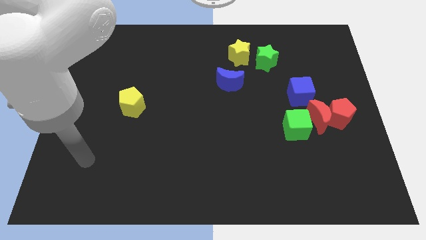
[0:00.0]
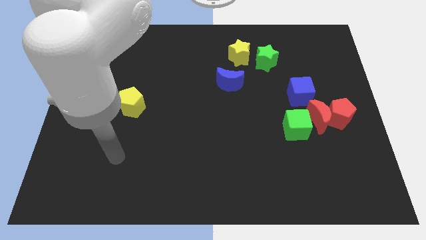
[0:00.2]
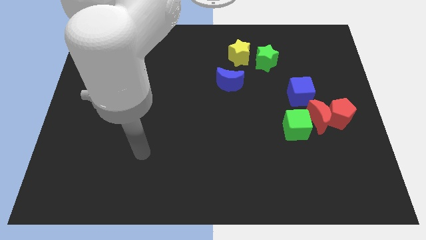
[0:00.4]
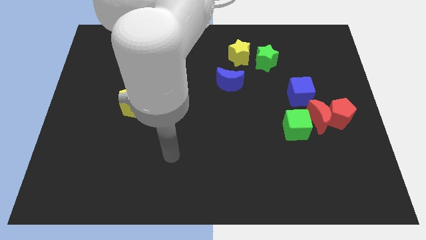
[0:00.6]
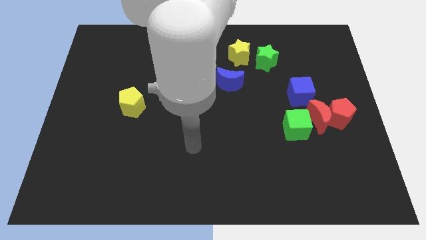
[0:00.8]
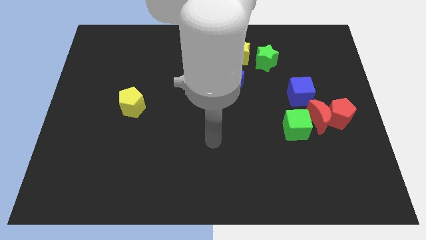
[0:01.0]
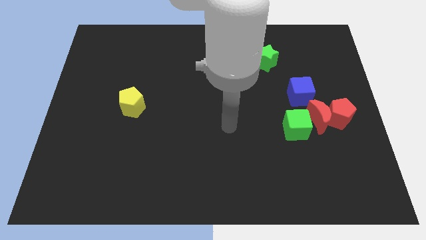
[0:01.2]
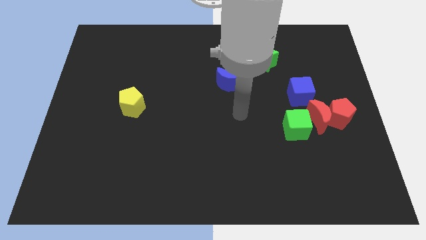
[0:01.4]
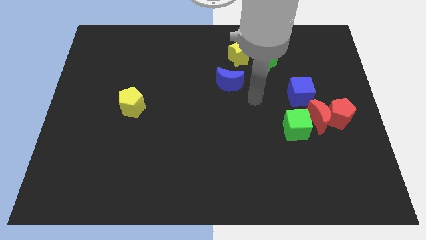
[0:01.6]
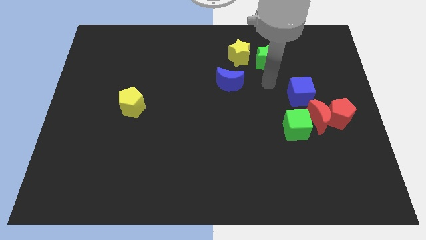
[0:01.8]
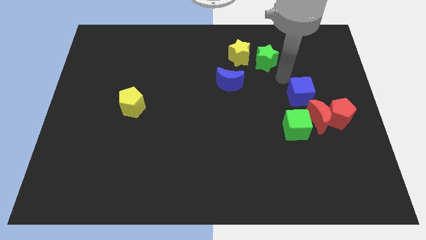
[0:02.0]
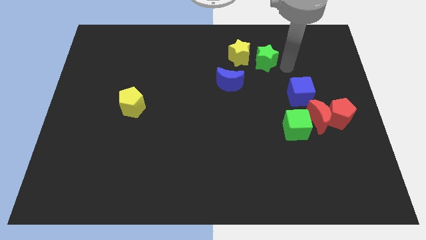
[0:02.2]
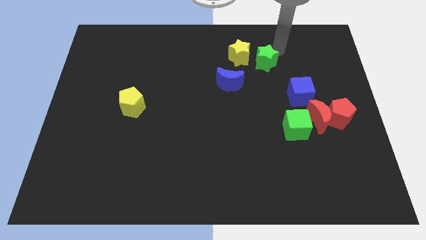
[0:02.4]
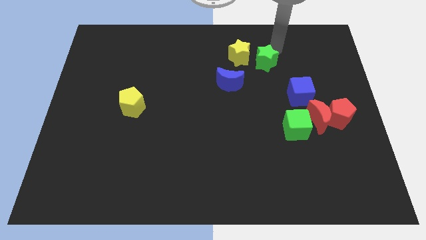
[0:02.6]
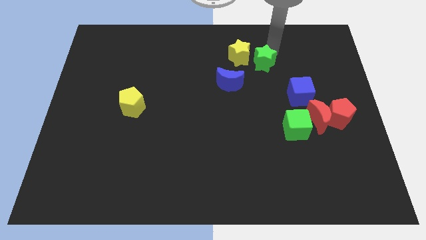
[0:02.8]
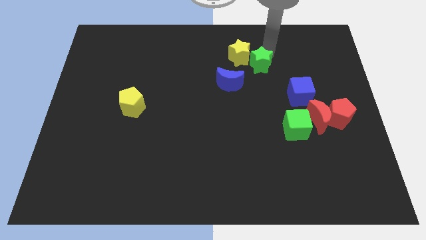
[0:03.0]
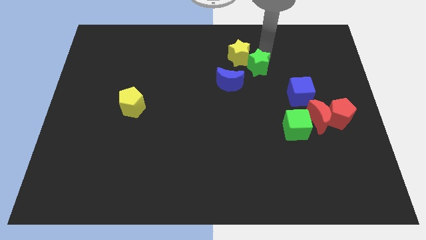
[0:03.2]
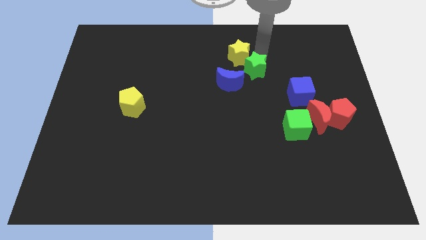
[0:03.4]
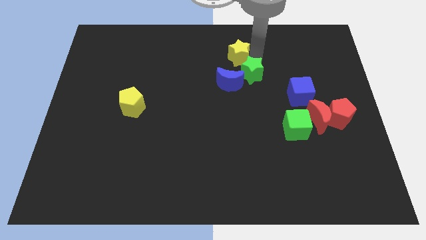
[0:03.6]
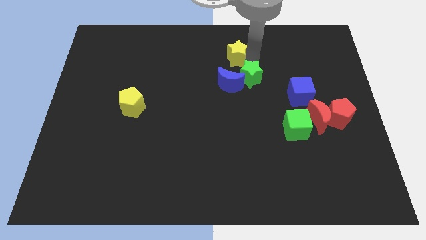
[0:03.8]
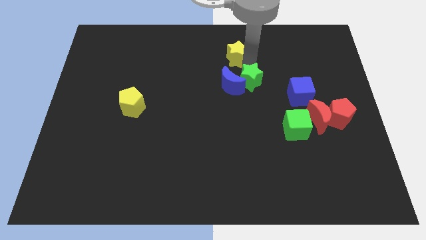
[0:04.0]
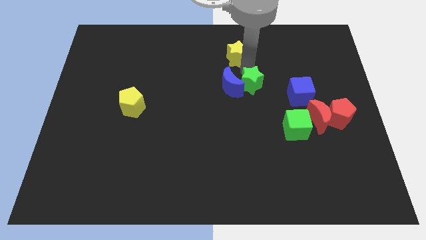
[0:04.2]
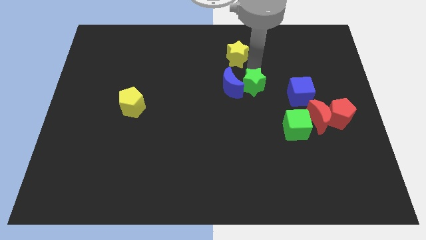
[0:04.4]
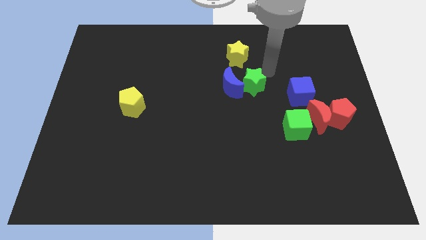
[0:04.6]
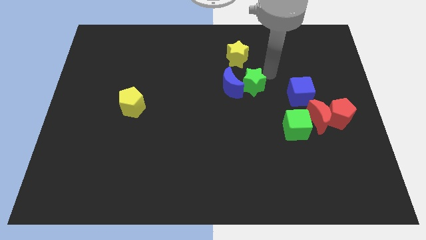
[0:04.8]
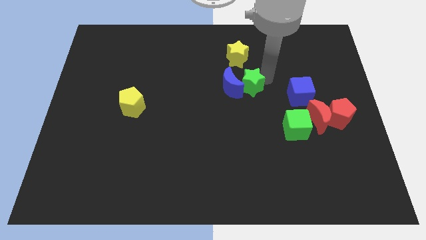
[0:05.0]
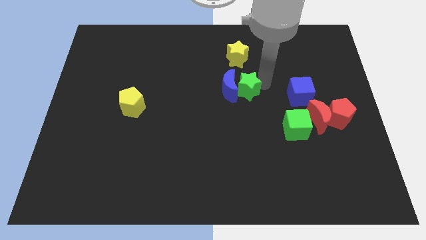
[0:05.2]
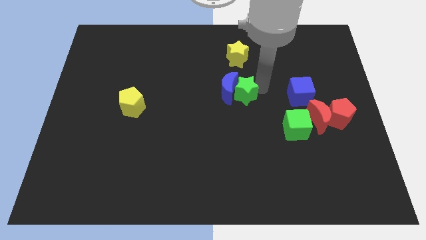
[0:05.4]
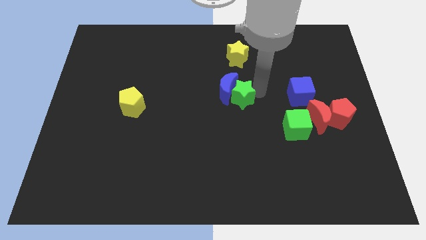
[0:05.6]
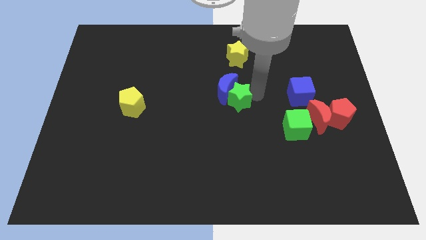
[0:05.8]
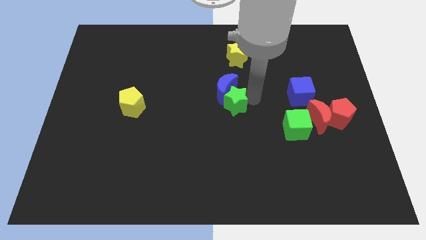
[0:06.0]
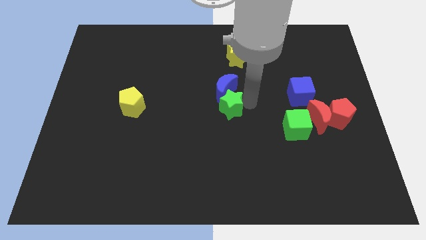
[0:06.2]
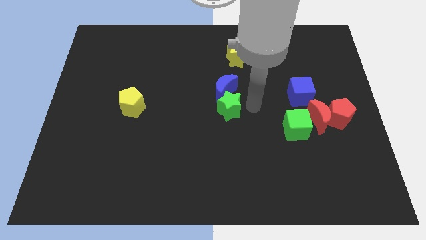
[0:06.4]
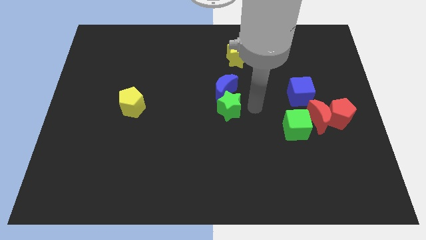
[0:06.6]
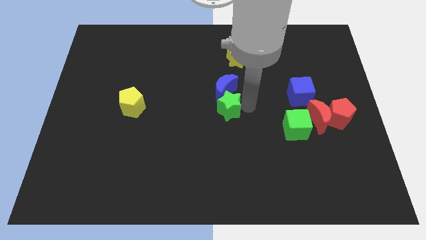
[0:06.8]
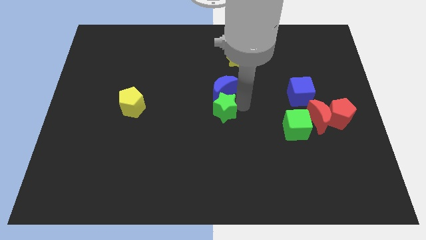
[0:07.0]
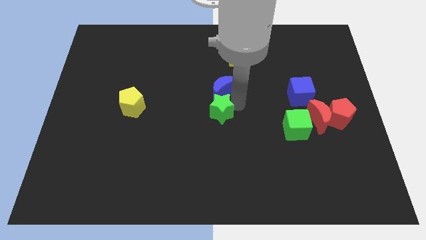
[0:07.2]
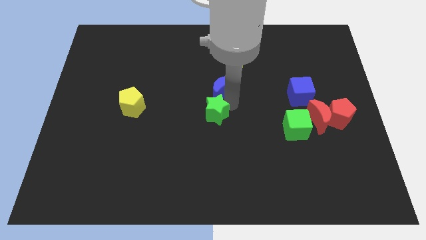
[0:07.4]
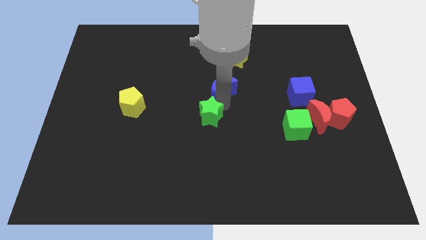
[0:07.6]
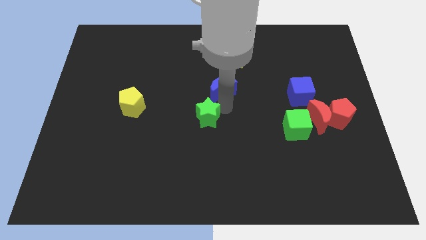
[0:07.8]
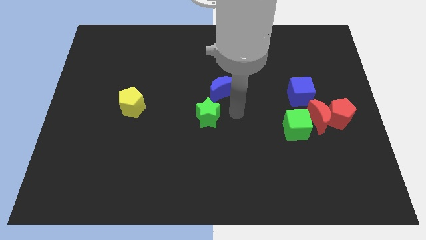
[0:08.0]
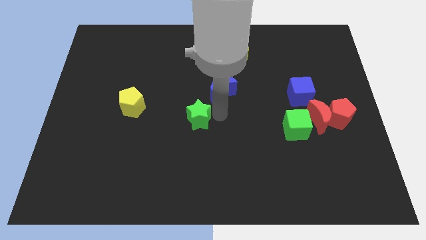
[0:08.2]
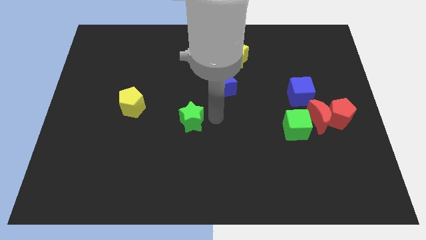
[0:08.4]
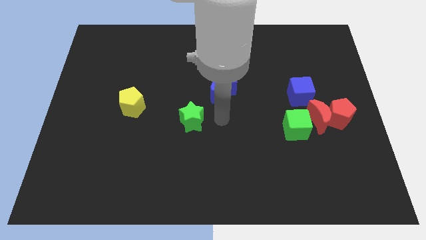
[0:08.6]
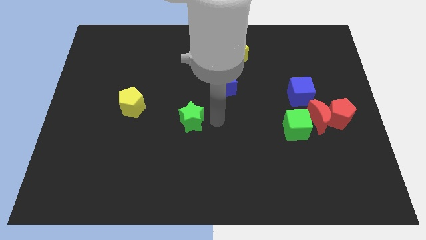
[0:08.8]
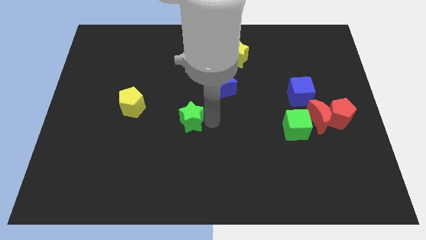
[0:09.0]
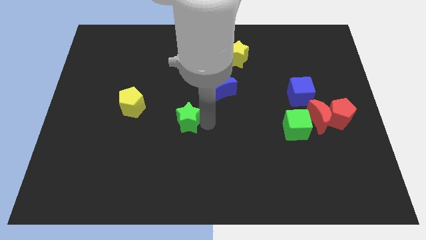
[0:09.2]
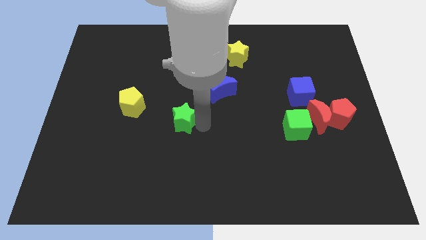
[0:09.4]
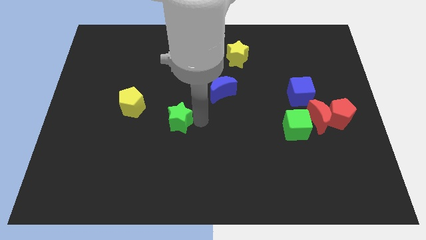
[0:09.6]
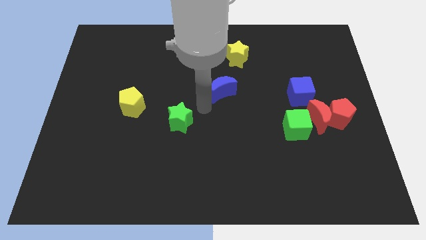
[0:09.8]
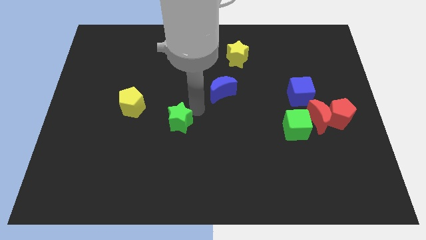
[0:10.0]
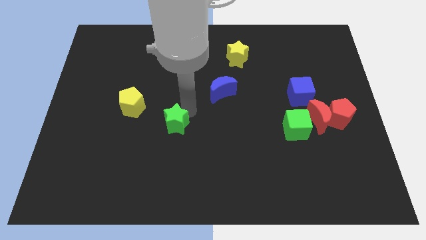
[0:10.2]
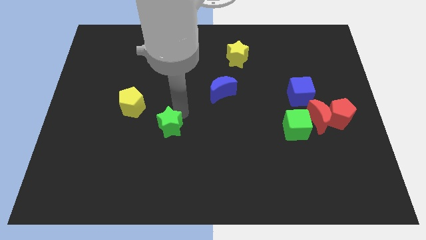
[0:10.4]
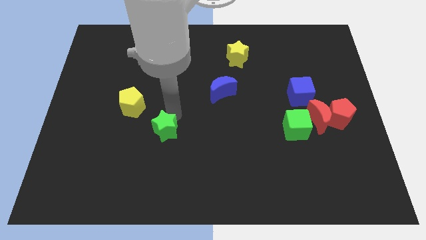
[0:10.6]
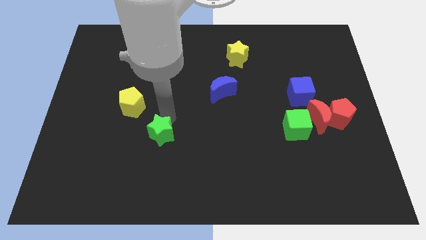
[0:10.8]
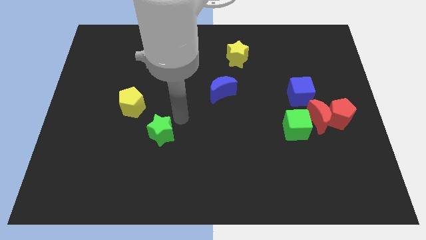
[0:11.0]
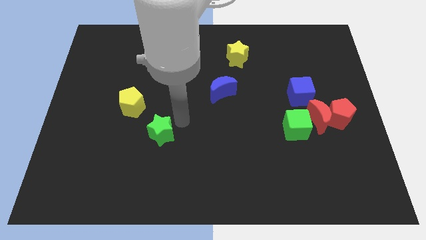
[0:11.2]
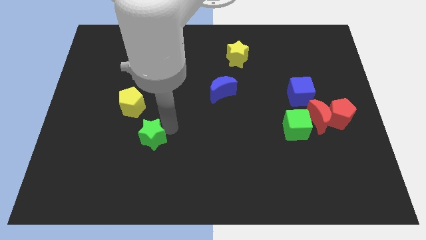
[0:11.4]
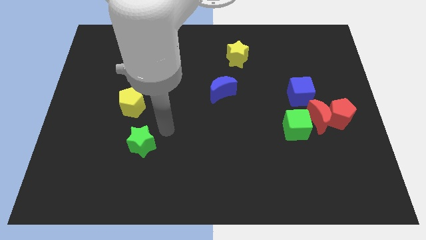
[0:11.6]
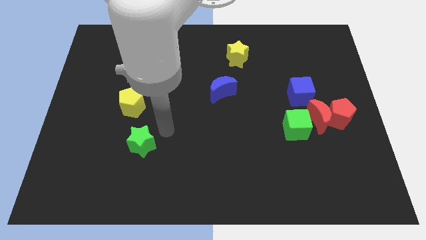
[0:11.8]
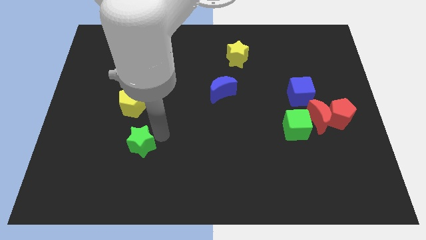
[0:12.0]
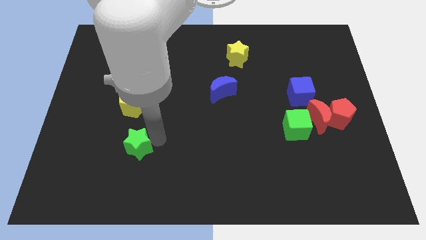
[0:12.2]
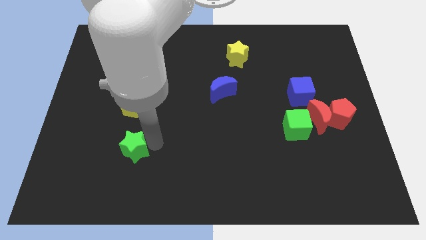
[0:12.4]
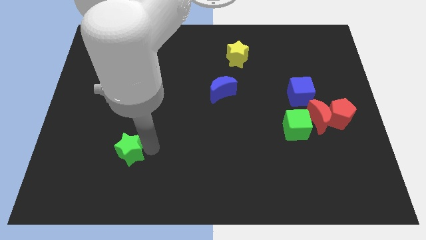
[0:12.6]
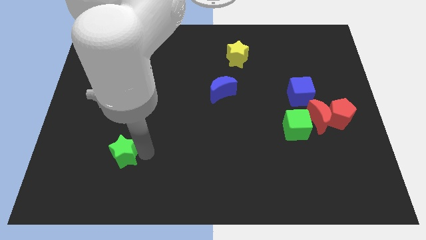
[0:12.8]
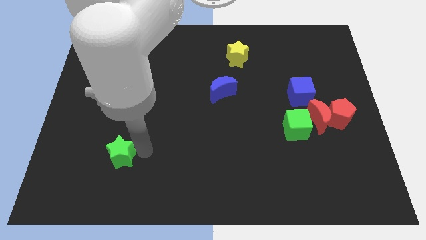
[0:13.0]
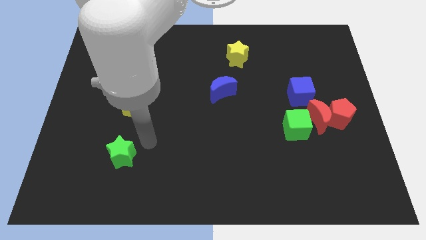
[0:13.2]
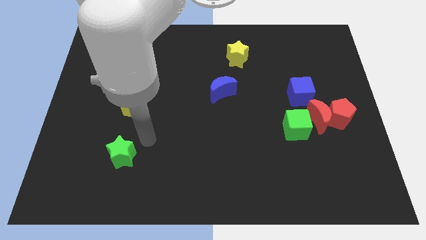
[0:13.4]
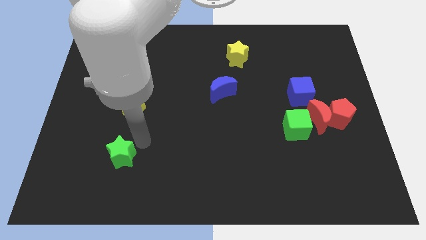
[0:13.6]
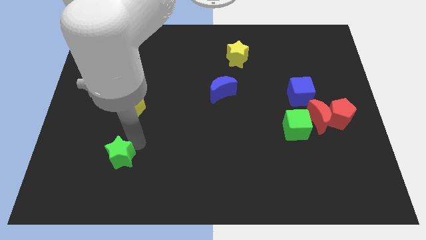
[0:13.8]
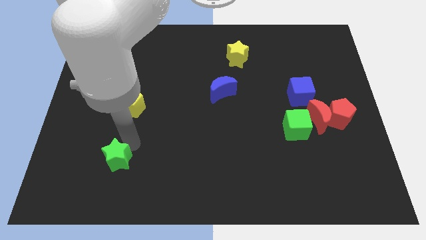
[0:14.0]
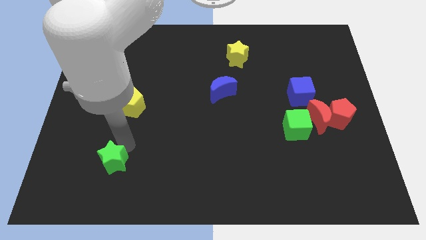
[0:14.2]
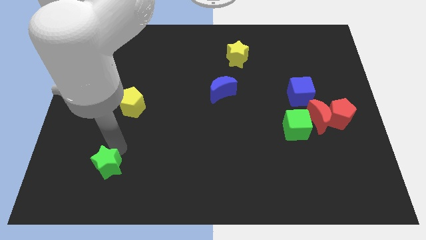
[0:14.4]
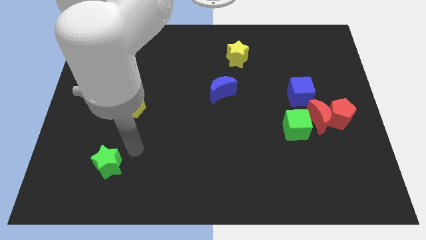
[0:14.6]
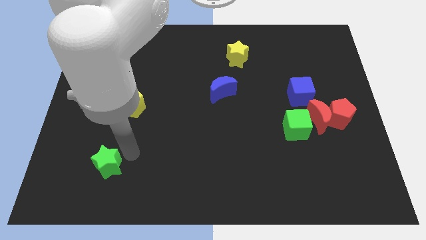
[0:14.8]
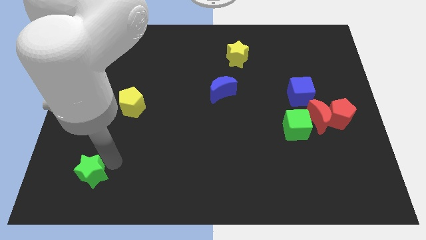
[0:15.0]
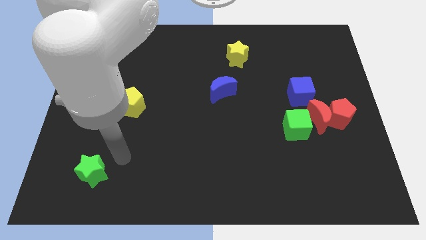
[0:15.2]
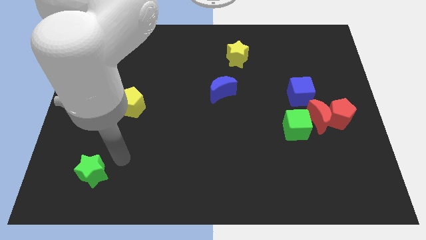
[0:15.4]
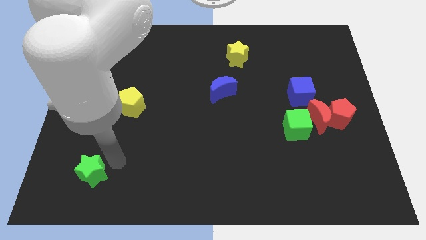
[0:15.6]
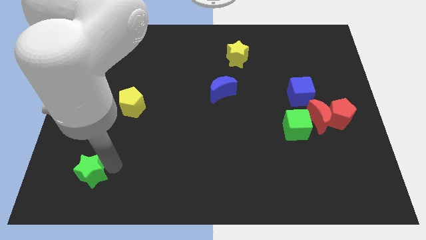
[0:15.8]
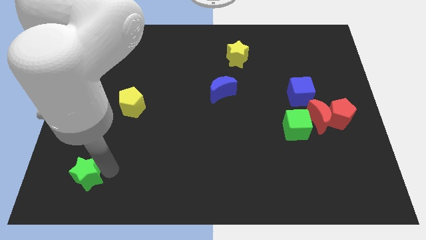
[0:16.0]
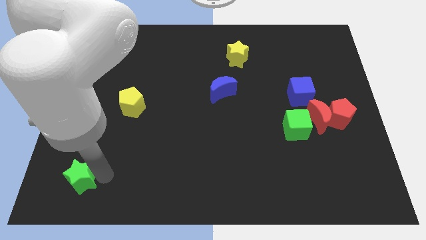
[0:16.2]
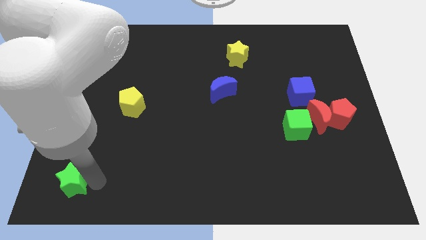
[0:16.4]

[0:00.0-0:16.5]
put the green star to the bottom left corner
